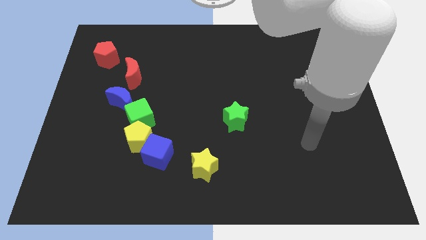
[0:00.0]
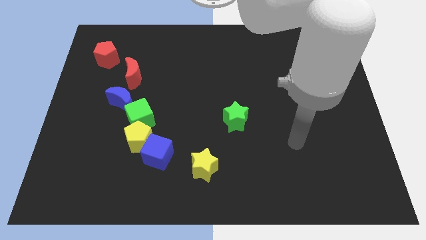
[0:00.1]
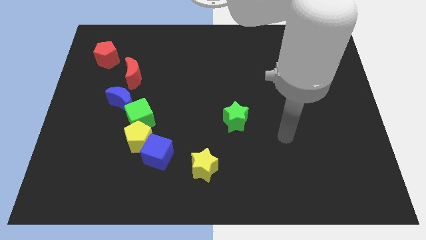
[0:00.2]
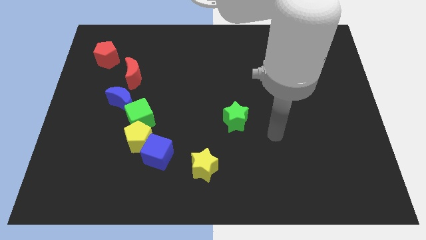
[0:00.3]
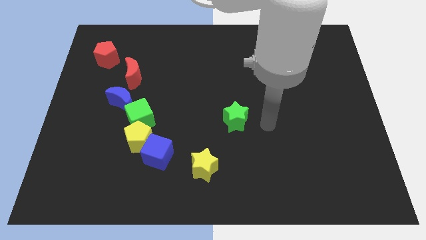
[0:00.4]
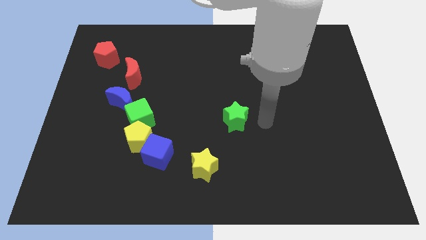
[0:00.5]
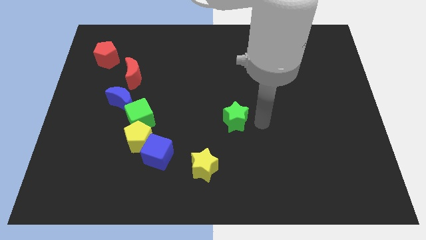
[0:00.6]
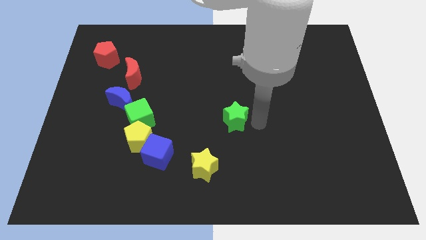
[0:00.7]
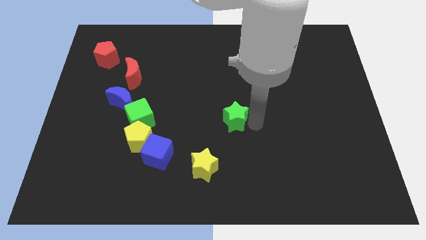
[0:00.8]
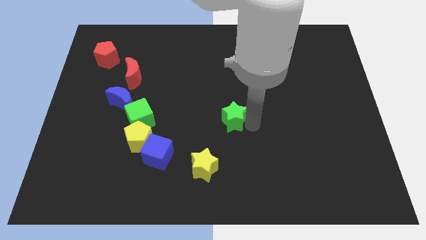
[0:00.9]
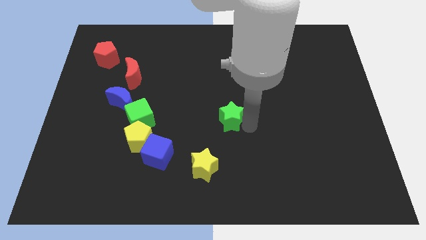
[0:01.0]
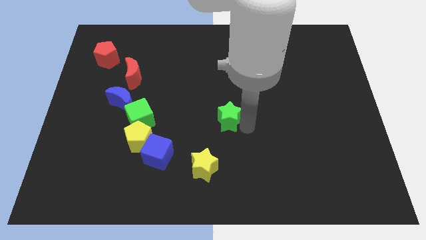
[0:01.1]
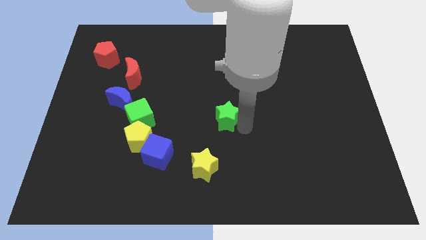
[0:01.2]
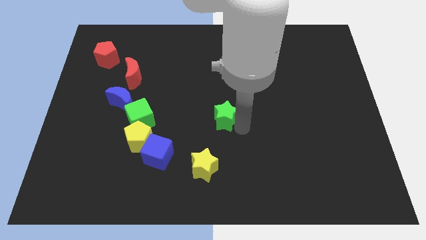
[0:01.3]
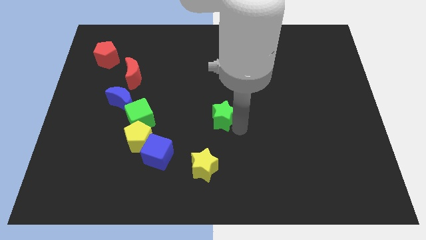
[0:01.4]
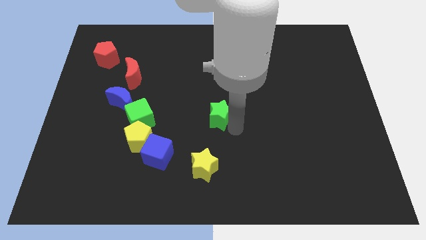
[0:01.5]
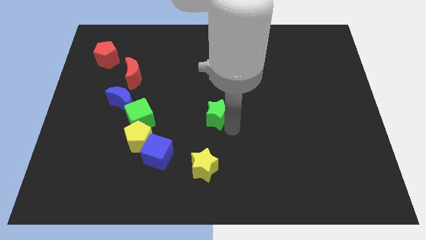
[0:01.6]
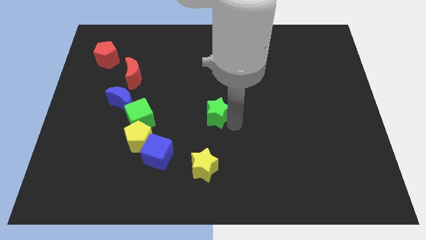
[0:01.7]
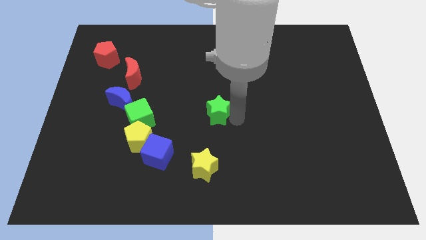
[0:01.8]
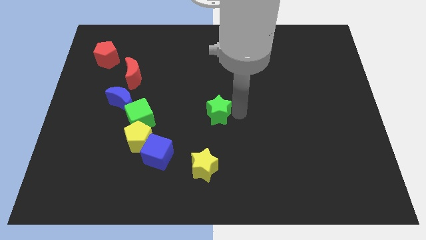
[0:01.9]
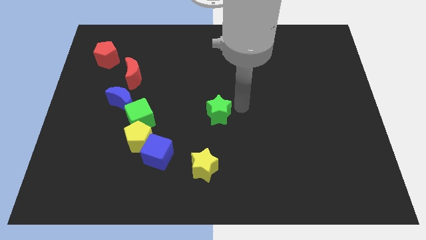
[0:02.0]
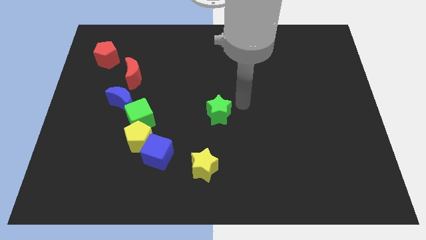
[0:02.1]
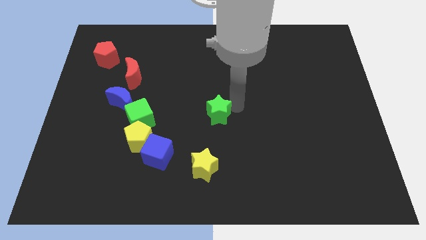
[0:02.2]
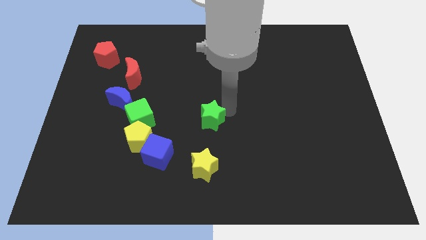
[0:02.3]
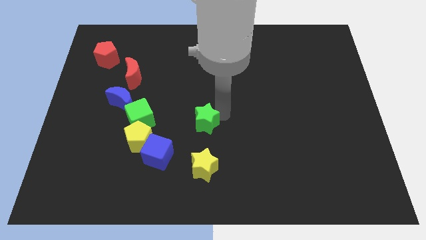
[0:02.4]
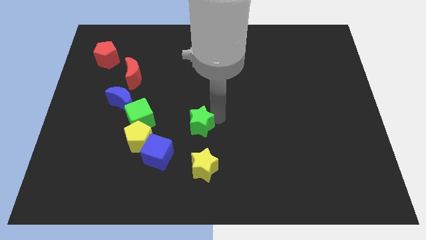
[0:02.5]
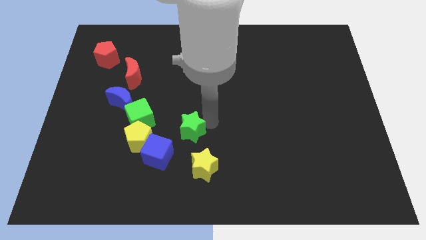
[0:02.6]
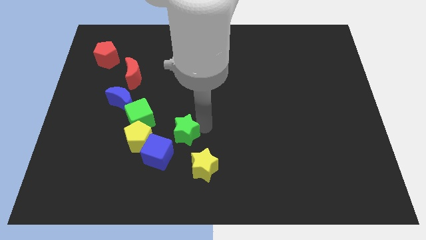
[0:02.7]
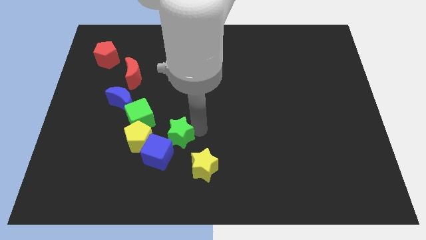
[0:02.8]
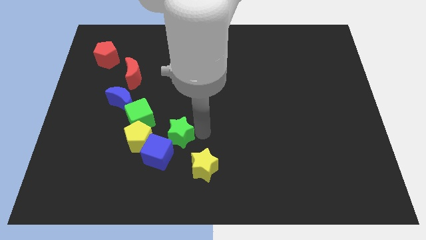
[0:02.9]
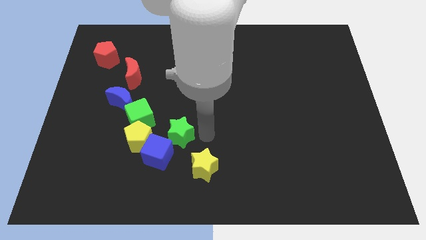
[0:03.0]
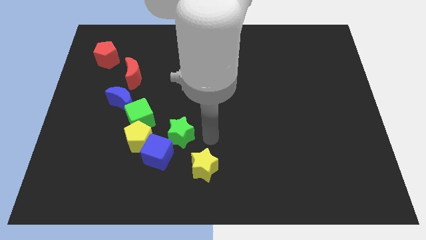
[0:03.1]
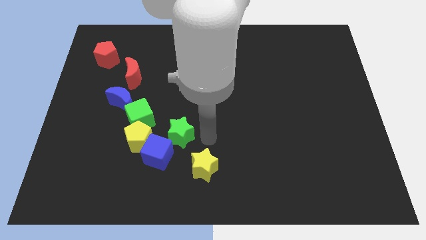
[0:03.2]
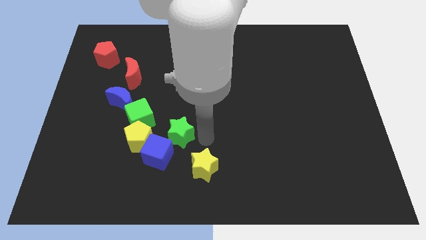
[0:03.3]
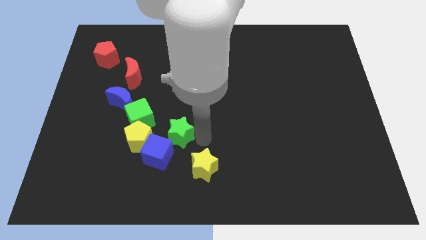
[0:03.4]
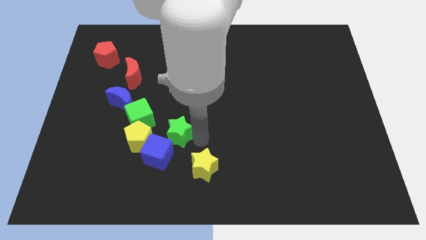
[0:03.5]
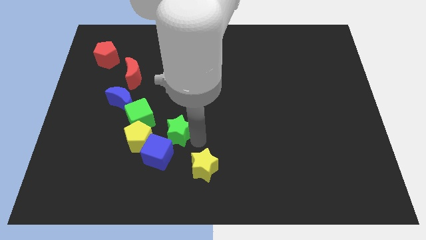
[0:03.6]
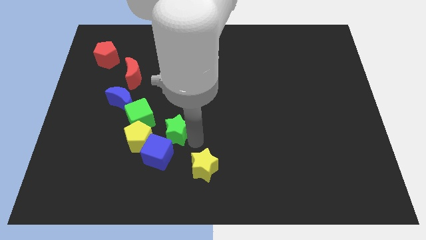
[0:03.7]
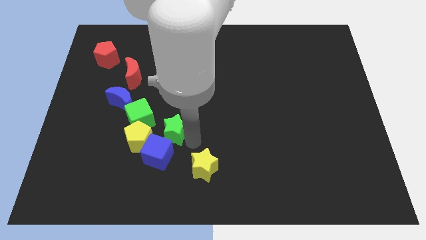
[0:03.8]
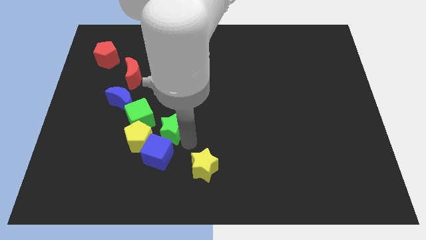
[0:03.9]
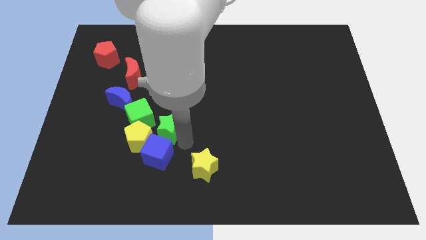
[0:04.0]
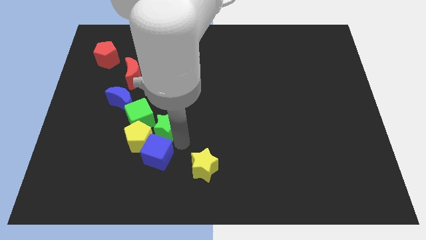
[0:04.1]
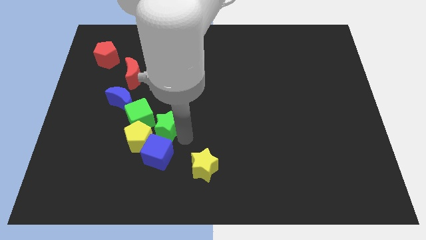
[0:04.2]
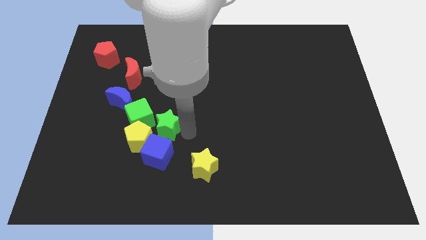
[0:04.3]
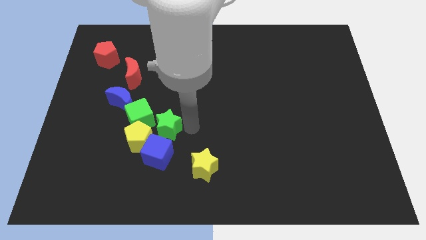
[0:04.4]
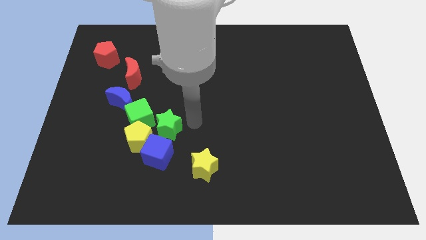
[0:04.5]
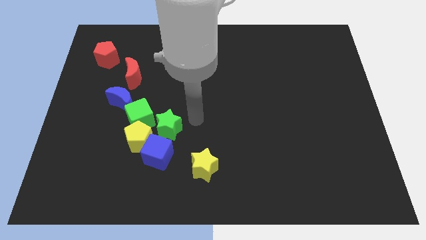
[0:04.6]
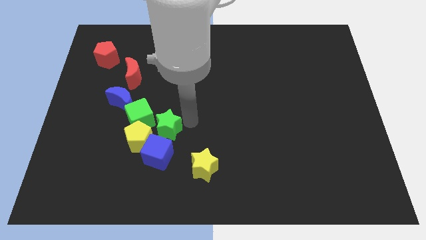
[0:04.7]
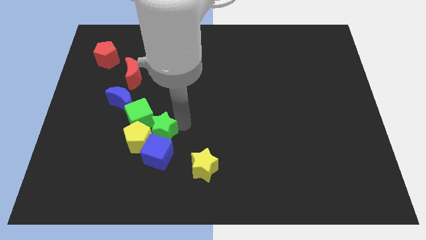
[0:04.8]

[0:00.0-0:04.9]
slide the green star to the yellow pentagon

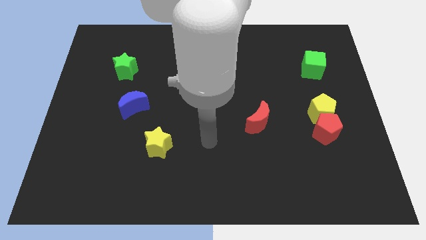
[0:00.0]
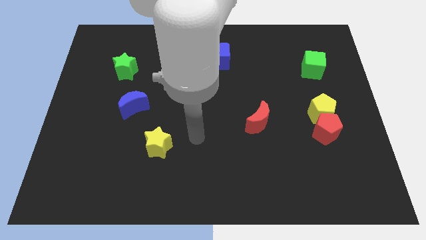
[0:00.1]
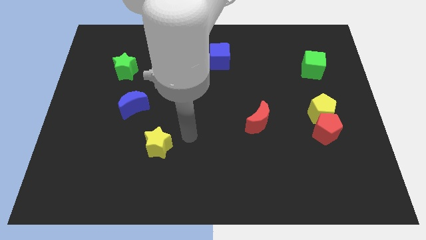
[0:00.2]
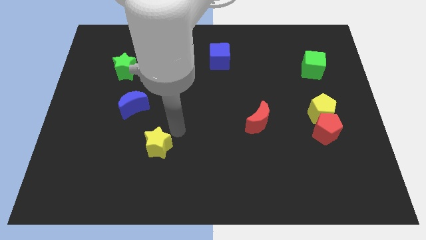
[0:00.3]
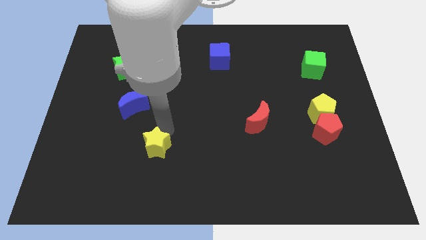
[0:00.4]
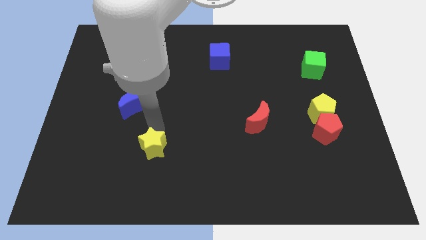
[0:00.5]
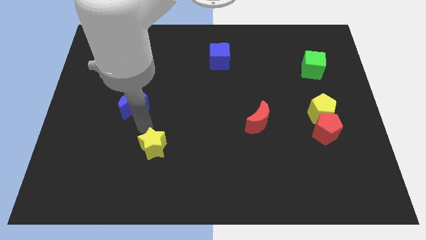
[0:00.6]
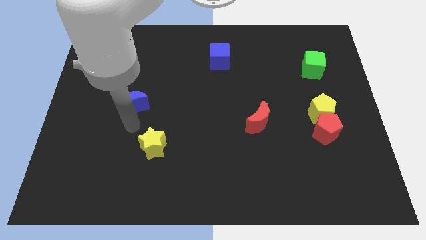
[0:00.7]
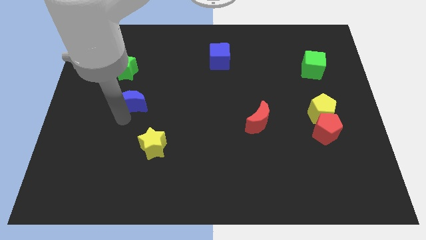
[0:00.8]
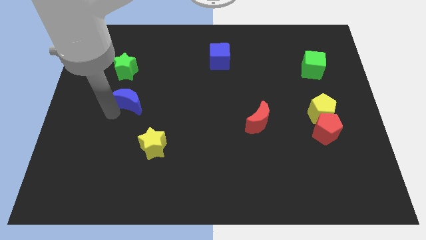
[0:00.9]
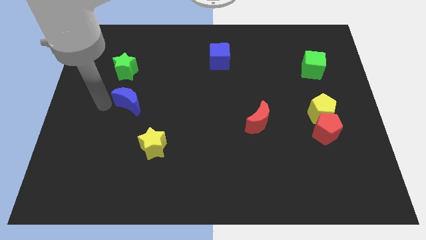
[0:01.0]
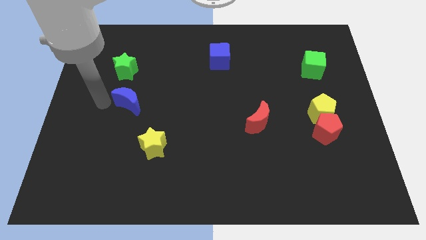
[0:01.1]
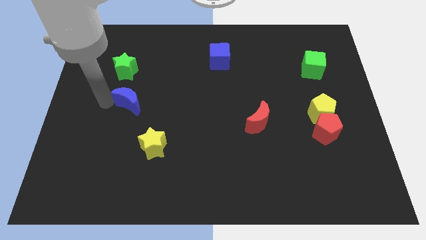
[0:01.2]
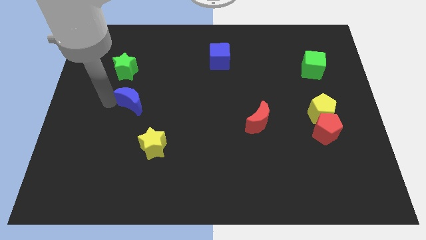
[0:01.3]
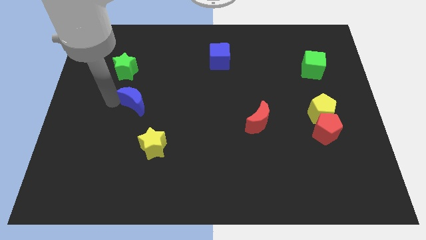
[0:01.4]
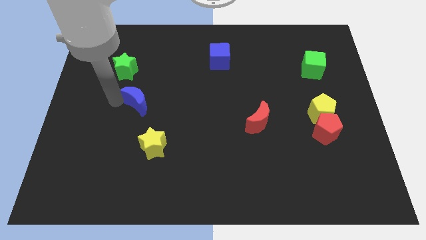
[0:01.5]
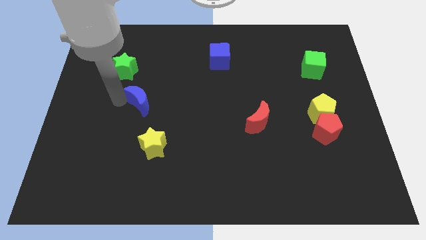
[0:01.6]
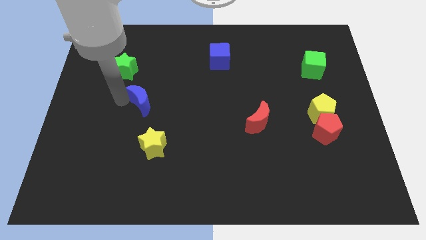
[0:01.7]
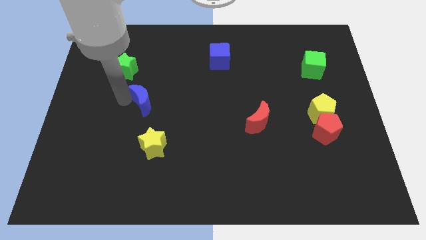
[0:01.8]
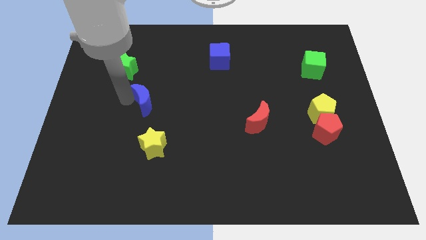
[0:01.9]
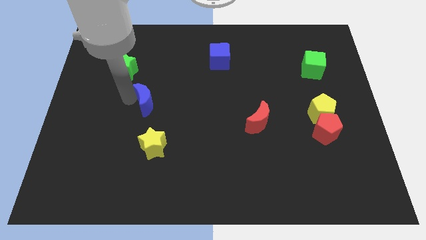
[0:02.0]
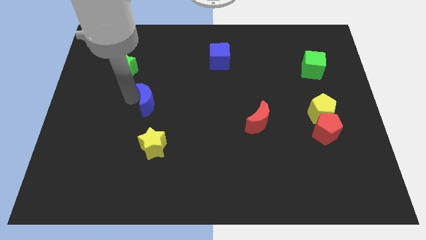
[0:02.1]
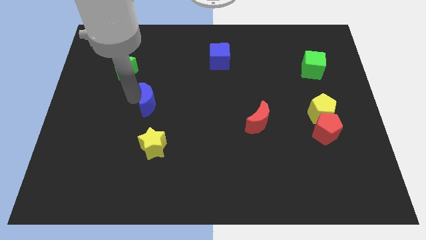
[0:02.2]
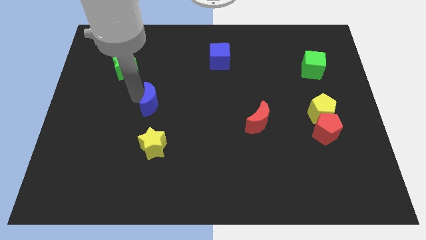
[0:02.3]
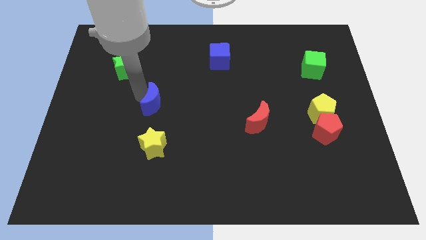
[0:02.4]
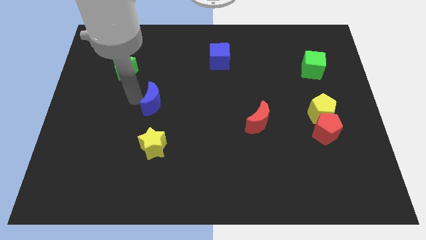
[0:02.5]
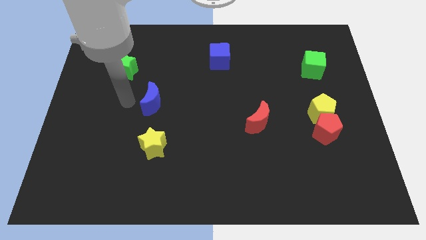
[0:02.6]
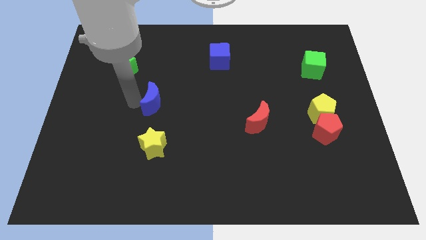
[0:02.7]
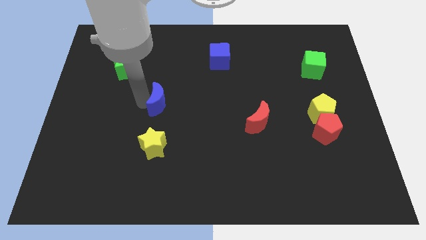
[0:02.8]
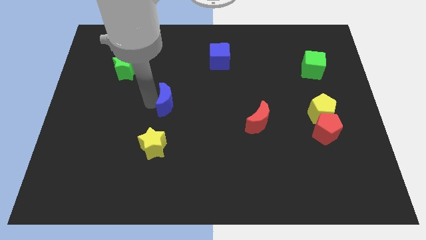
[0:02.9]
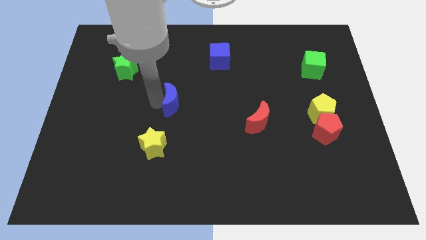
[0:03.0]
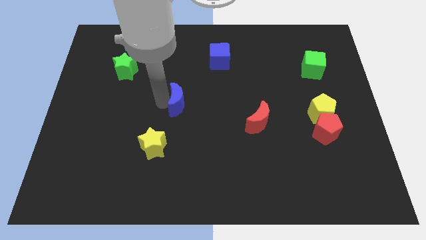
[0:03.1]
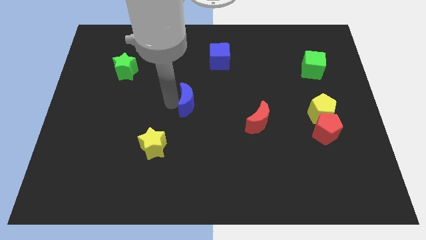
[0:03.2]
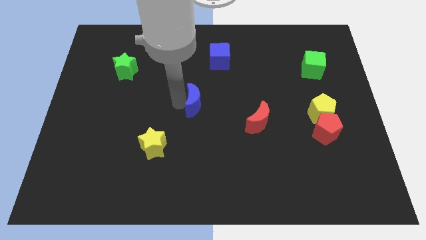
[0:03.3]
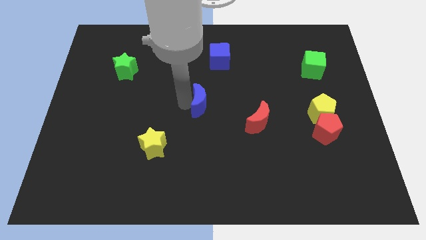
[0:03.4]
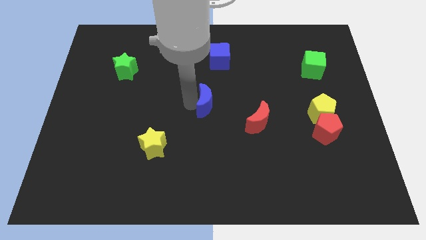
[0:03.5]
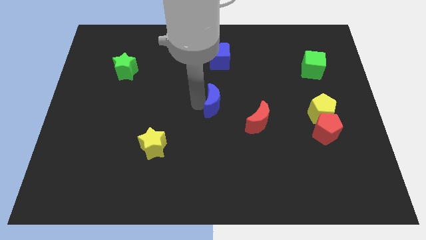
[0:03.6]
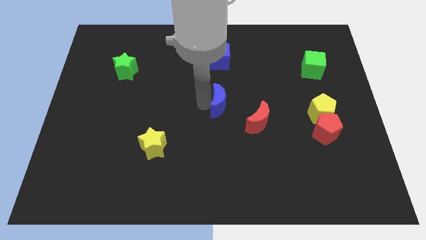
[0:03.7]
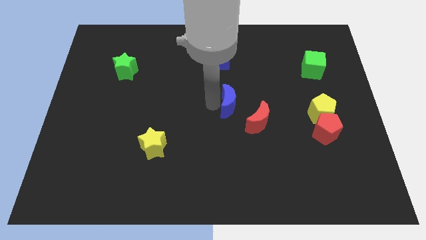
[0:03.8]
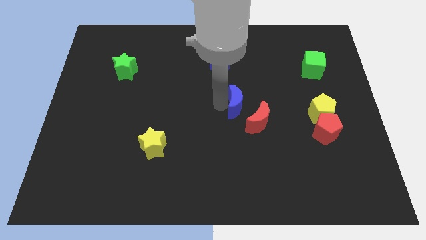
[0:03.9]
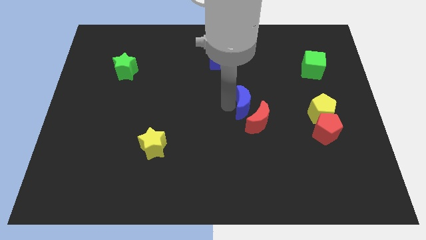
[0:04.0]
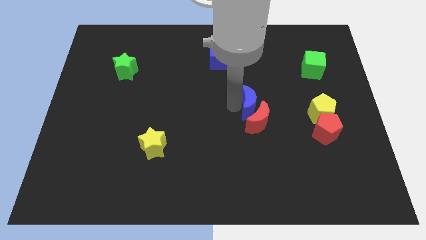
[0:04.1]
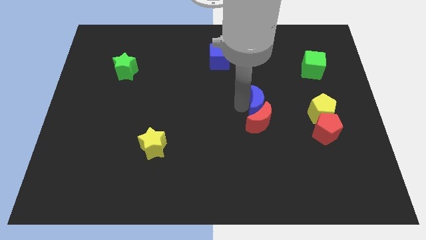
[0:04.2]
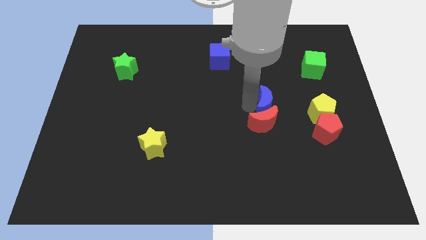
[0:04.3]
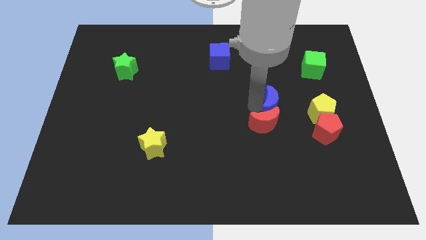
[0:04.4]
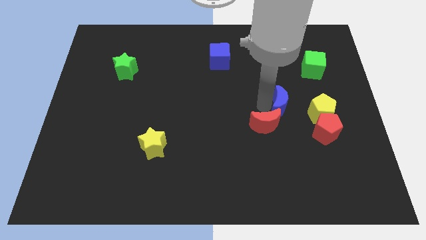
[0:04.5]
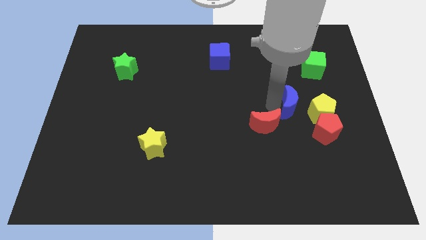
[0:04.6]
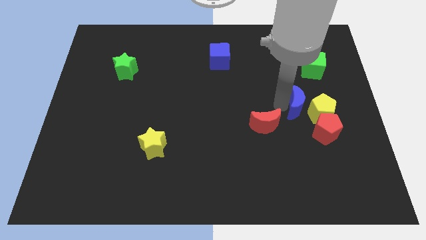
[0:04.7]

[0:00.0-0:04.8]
put the blue moon close to the yellow pentagon
